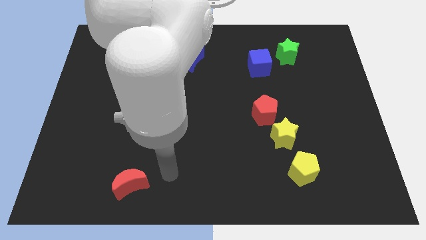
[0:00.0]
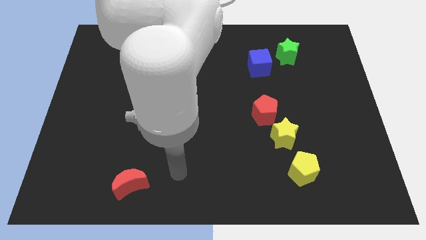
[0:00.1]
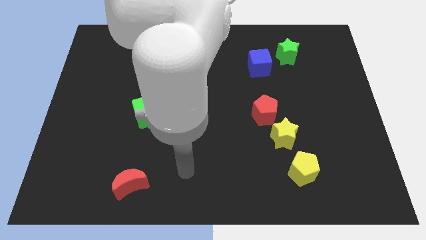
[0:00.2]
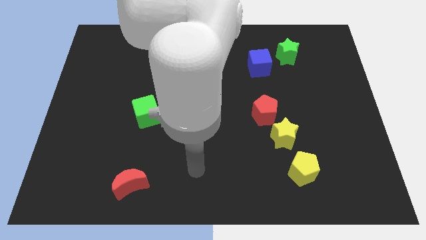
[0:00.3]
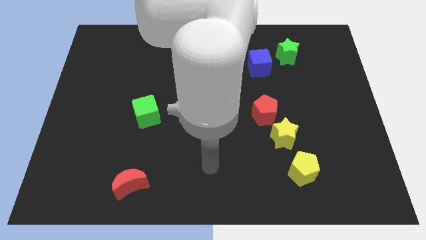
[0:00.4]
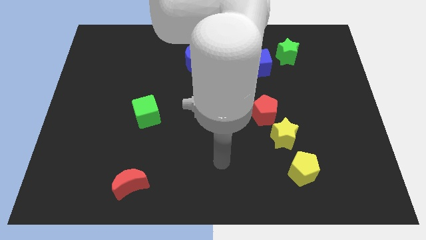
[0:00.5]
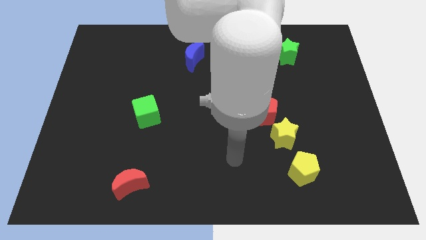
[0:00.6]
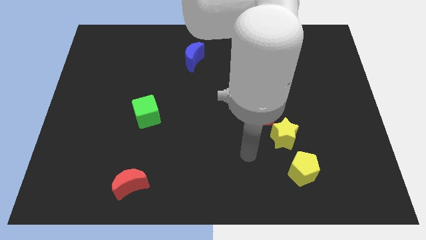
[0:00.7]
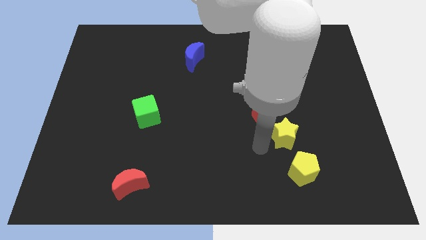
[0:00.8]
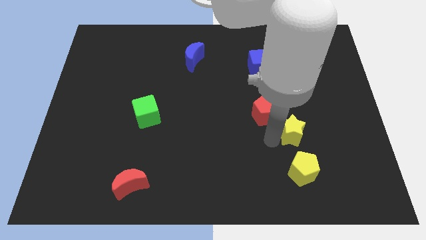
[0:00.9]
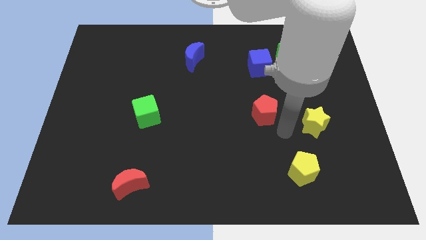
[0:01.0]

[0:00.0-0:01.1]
move the red pentagon away from the yellow star

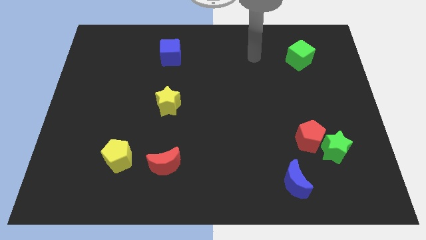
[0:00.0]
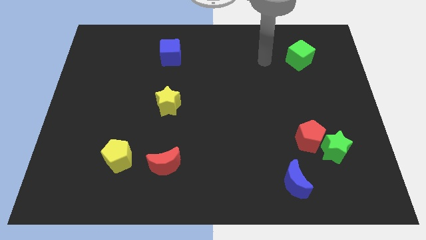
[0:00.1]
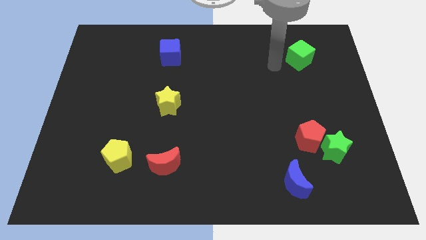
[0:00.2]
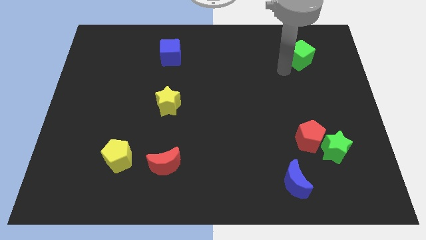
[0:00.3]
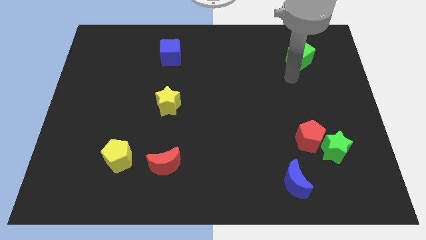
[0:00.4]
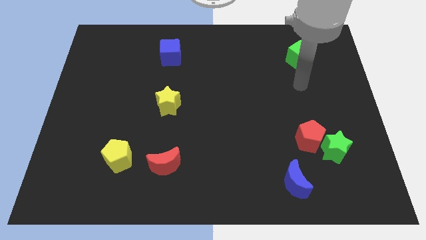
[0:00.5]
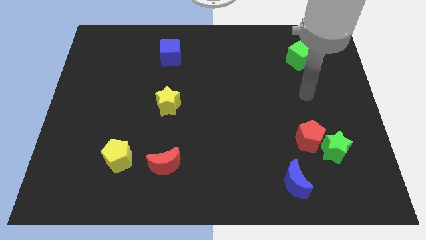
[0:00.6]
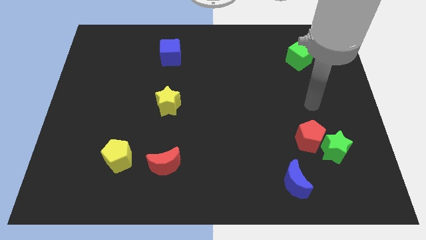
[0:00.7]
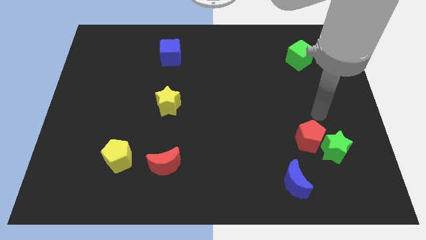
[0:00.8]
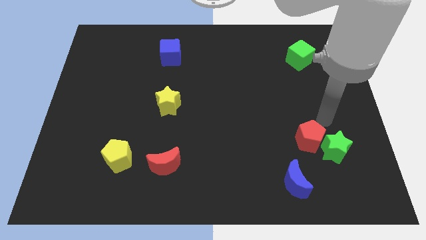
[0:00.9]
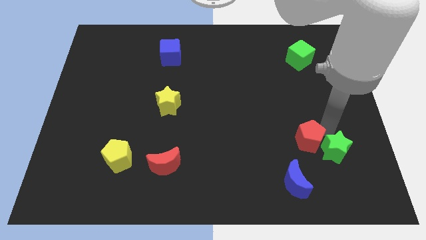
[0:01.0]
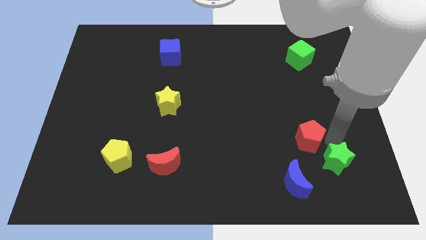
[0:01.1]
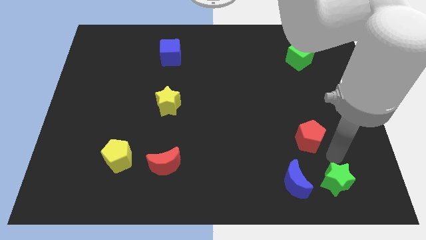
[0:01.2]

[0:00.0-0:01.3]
move the red pentagon away from the green star

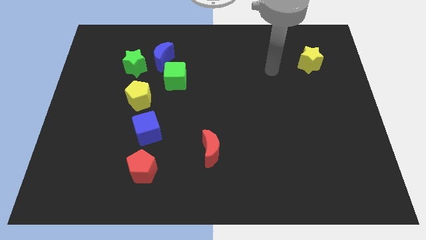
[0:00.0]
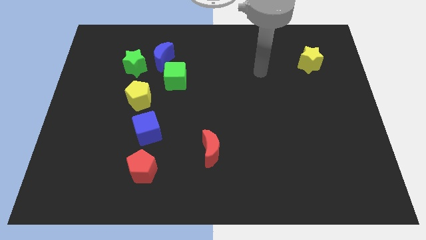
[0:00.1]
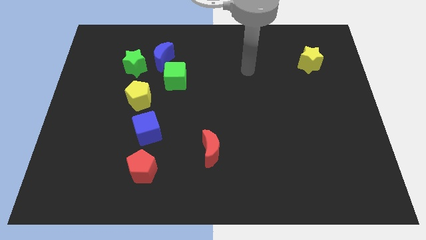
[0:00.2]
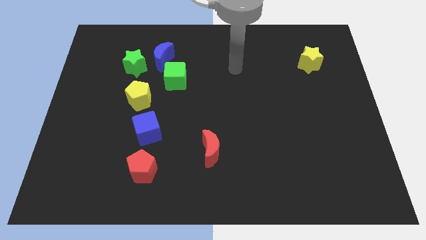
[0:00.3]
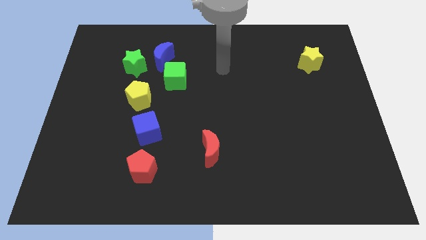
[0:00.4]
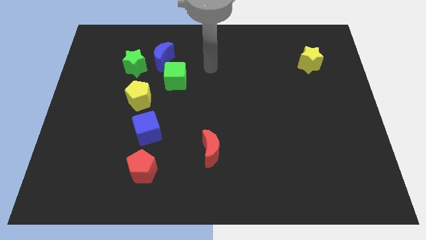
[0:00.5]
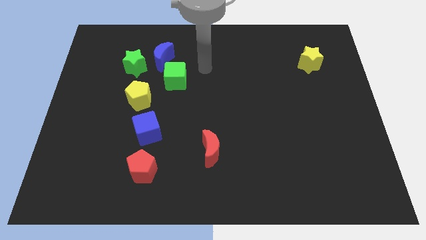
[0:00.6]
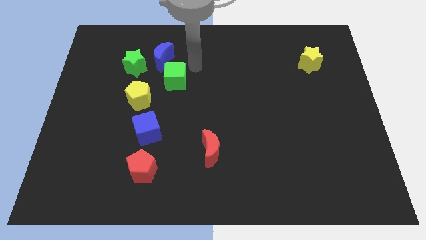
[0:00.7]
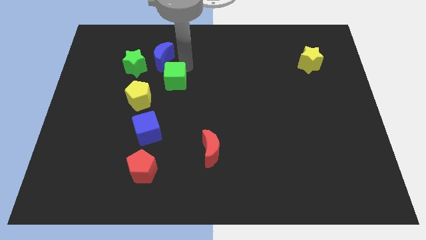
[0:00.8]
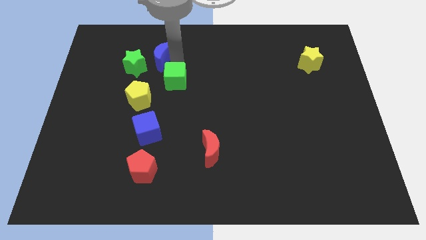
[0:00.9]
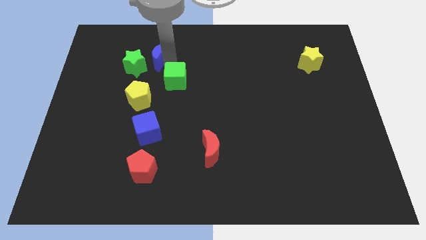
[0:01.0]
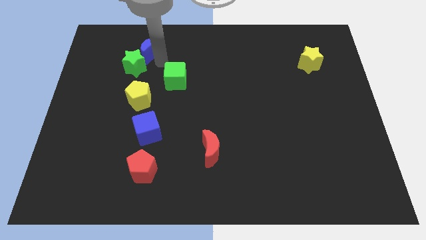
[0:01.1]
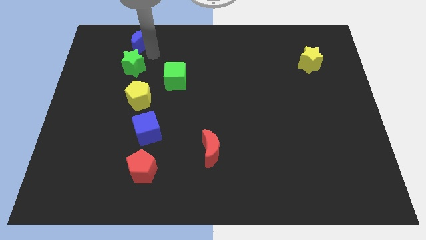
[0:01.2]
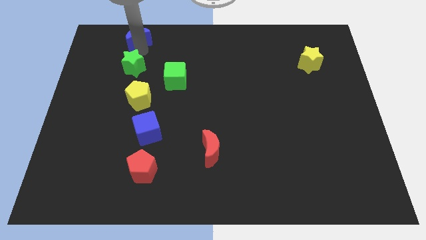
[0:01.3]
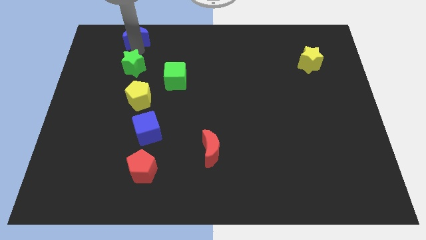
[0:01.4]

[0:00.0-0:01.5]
pull the green star apart from the blue moon

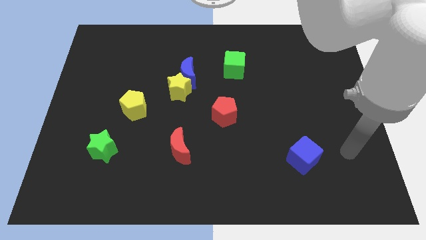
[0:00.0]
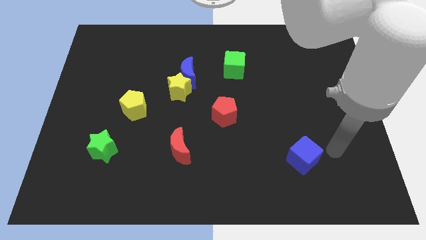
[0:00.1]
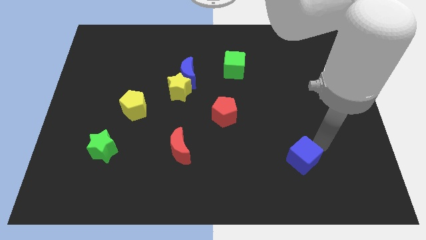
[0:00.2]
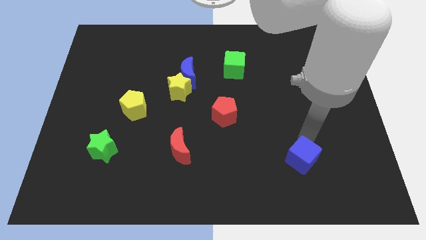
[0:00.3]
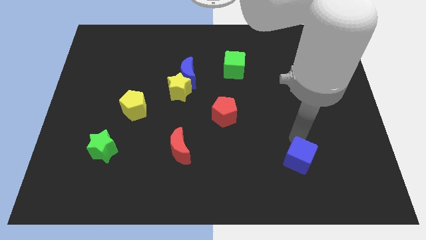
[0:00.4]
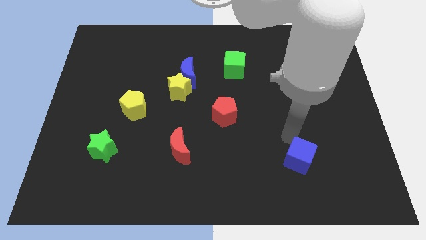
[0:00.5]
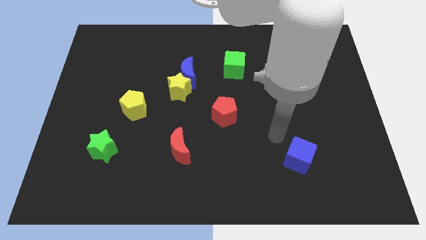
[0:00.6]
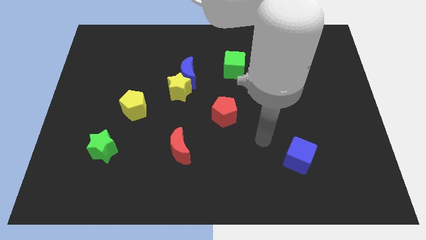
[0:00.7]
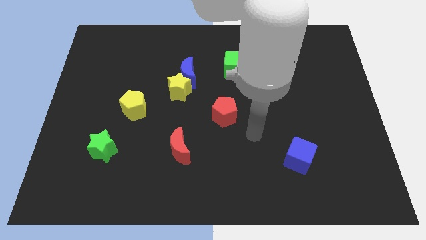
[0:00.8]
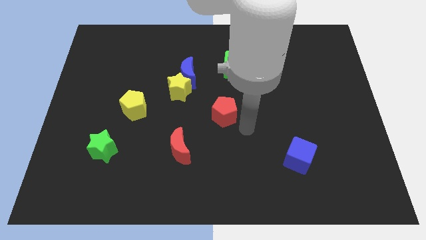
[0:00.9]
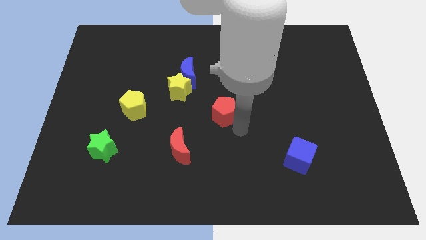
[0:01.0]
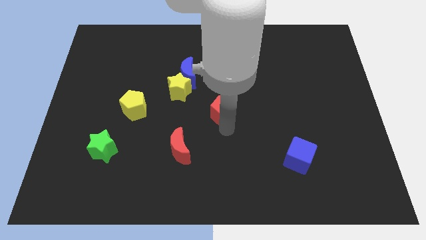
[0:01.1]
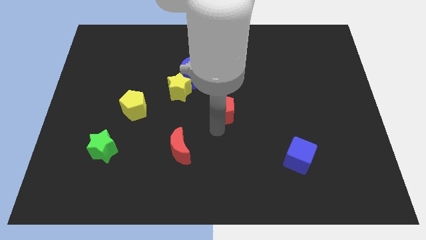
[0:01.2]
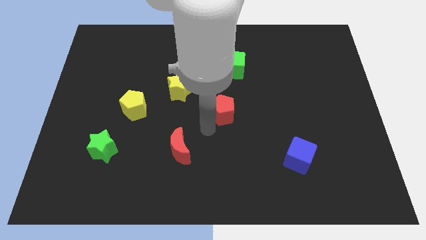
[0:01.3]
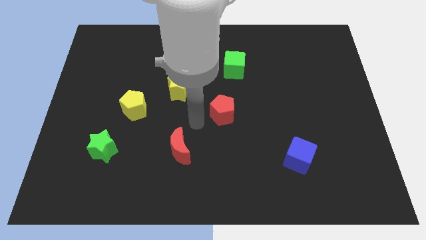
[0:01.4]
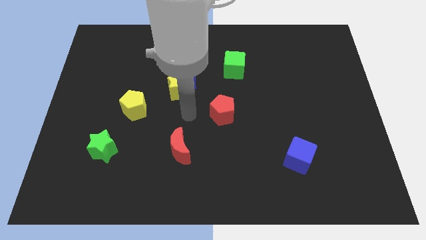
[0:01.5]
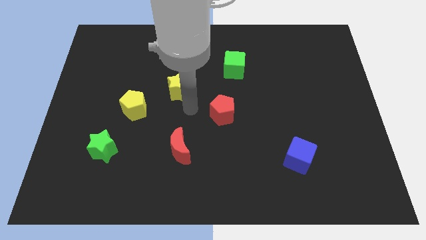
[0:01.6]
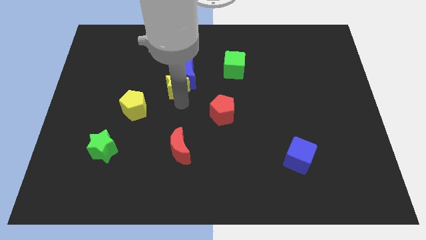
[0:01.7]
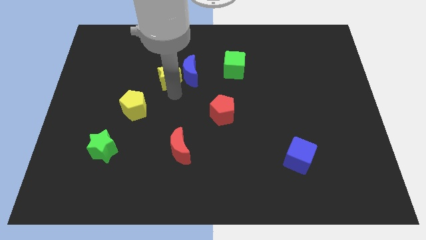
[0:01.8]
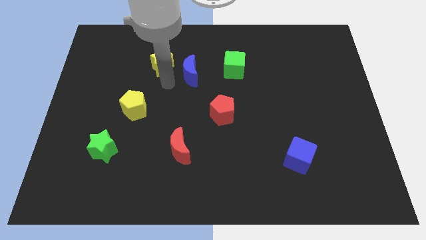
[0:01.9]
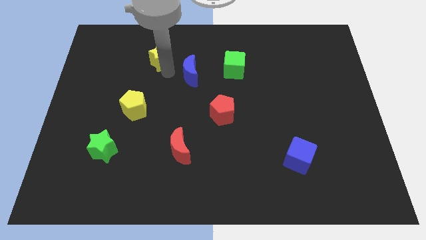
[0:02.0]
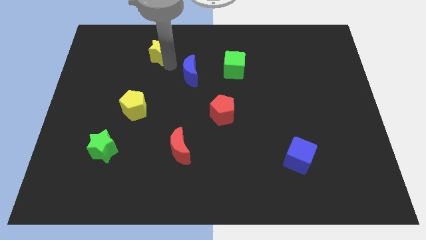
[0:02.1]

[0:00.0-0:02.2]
separate the blue moon from the yellow star

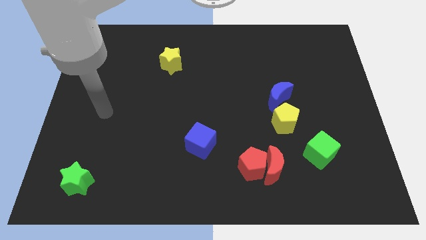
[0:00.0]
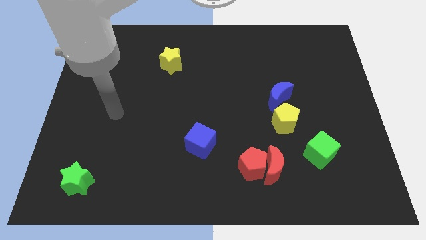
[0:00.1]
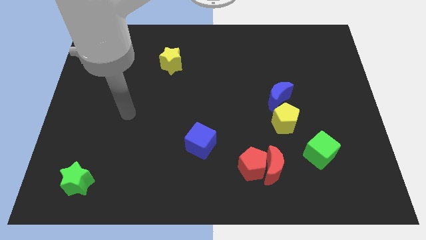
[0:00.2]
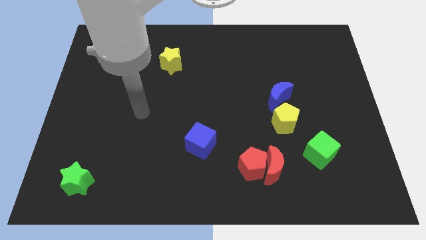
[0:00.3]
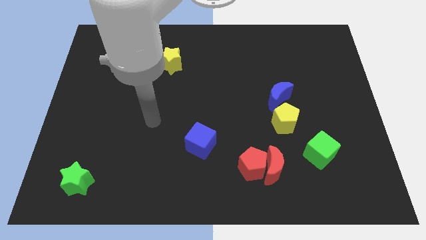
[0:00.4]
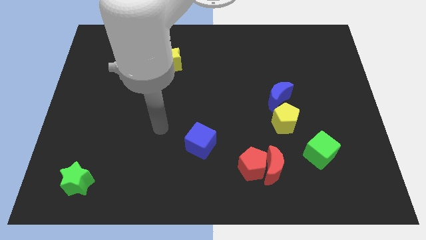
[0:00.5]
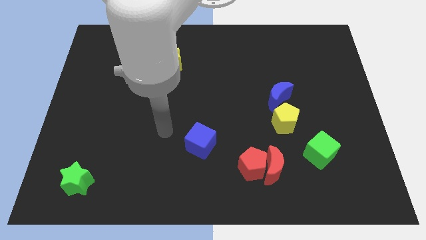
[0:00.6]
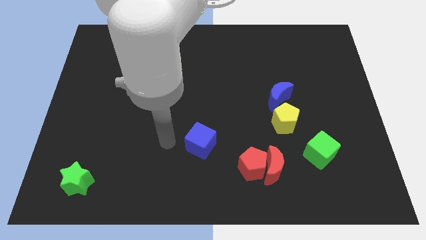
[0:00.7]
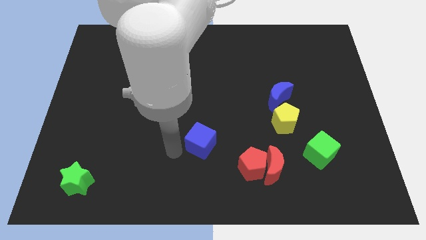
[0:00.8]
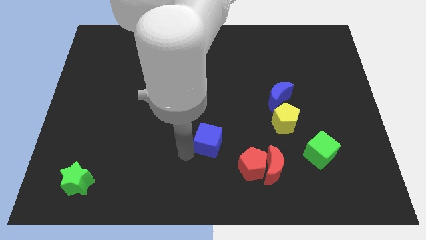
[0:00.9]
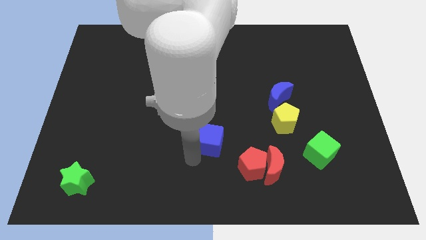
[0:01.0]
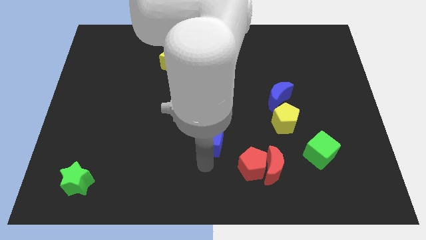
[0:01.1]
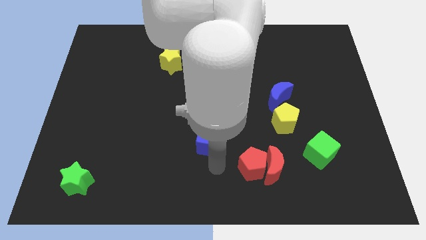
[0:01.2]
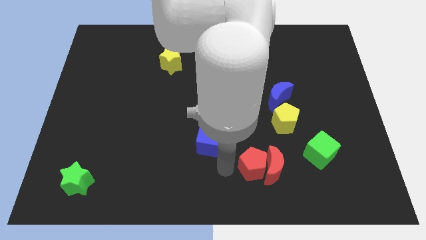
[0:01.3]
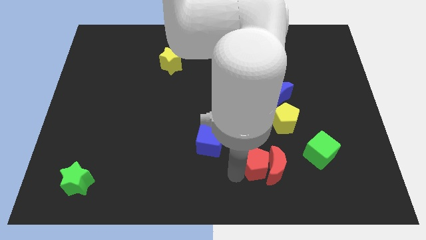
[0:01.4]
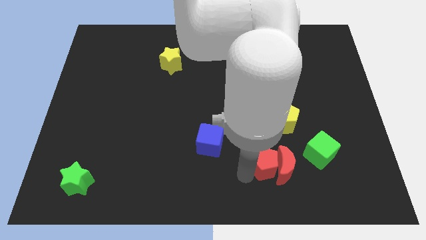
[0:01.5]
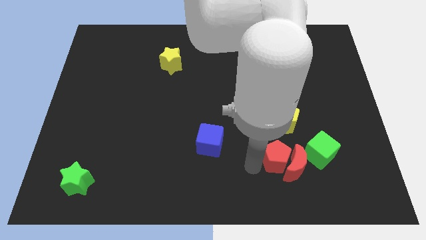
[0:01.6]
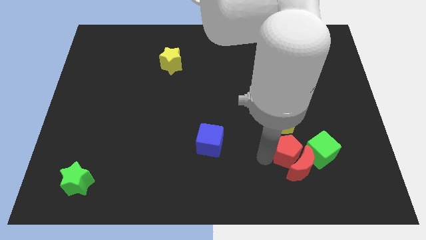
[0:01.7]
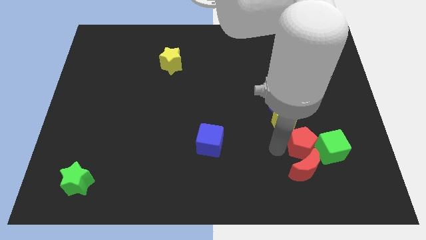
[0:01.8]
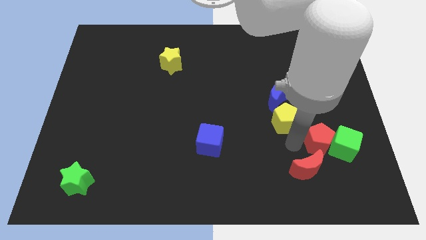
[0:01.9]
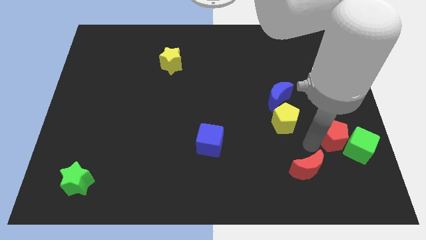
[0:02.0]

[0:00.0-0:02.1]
pull the red moon apart from the red pentagon

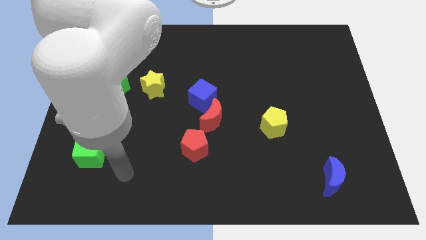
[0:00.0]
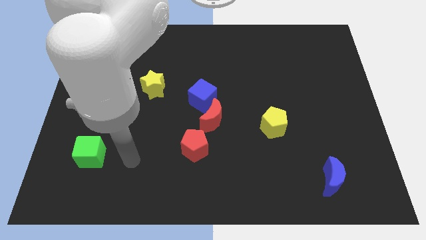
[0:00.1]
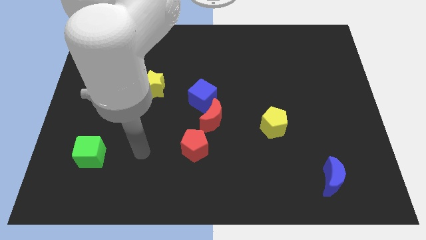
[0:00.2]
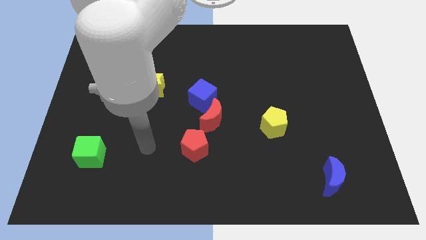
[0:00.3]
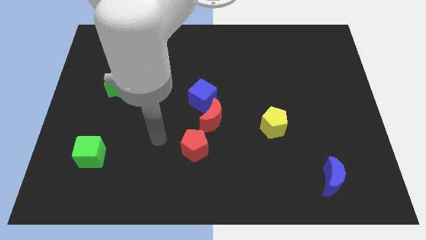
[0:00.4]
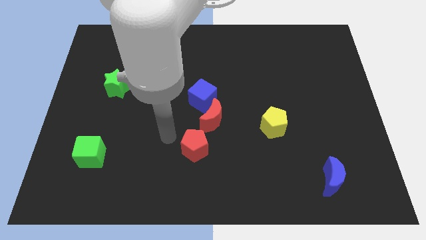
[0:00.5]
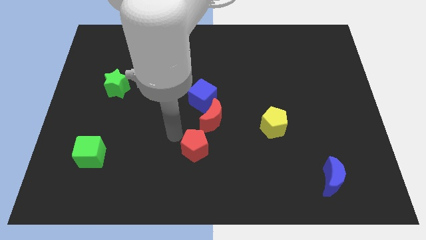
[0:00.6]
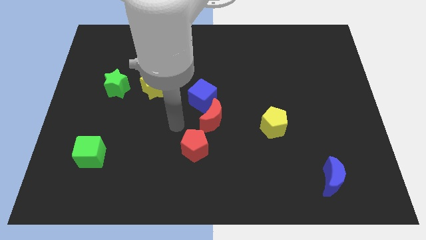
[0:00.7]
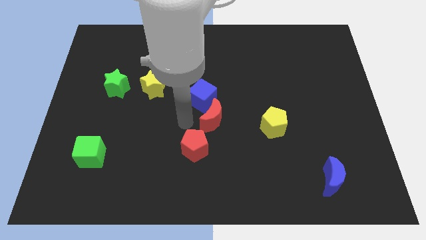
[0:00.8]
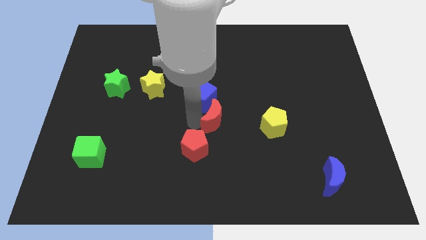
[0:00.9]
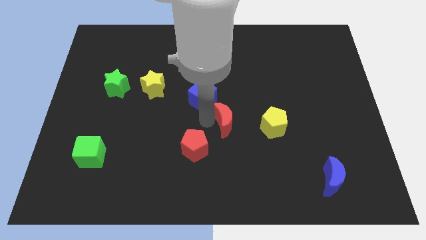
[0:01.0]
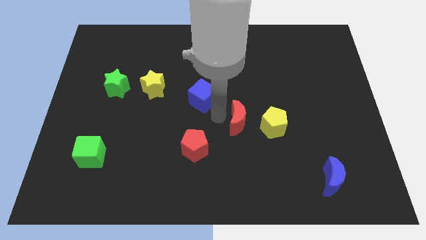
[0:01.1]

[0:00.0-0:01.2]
pull the blue cube apart from the red moon

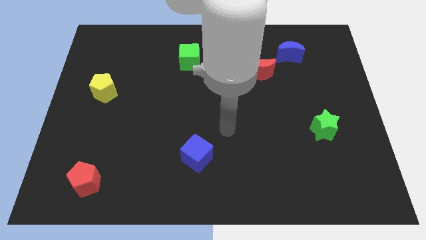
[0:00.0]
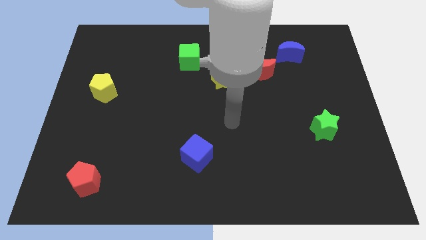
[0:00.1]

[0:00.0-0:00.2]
move the yellow star away from the red moon
